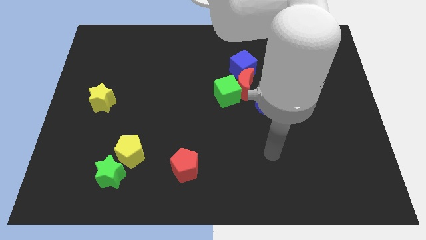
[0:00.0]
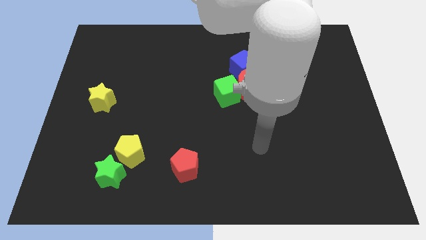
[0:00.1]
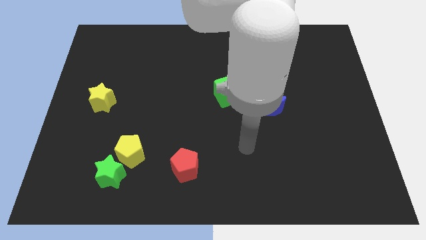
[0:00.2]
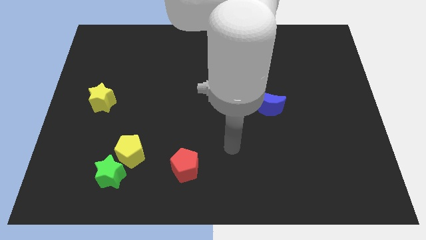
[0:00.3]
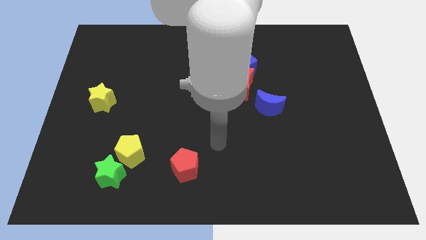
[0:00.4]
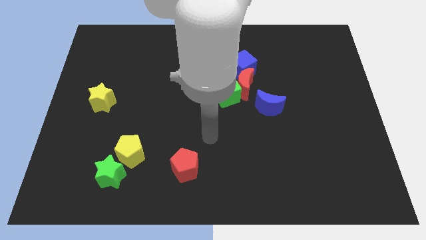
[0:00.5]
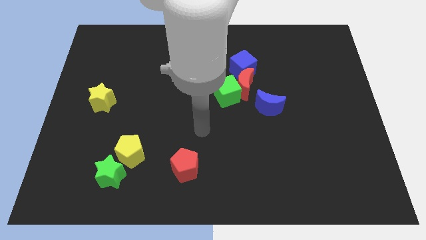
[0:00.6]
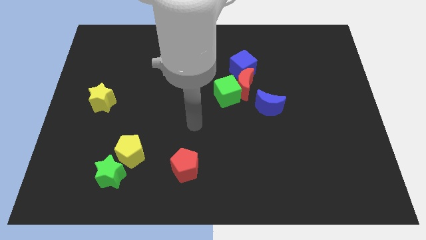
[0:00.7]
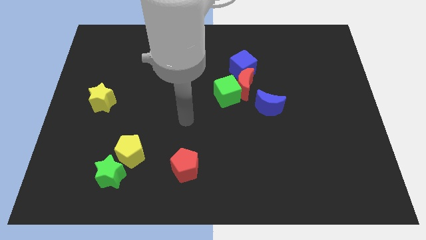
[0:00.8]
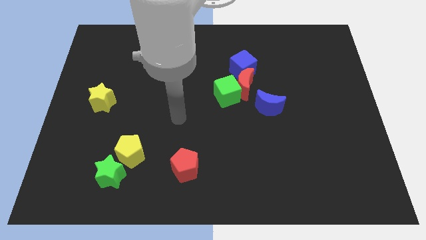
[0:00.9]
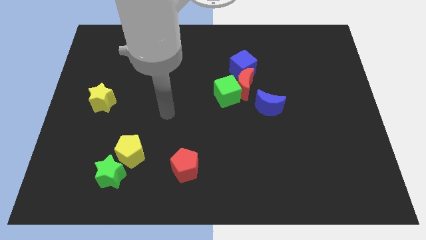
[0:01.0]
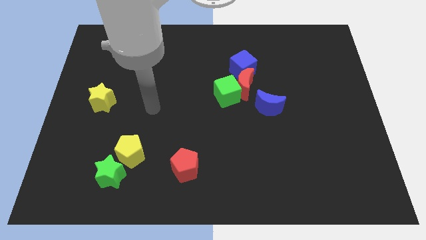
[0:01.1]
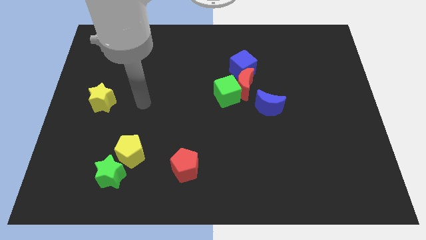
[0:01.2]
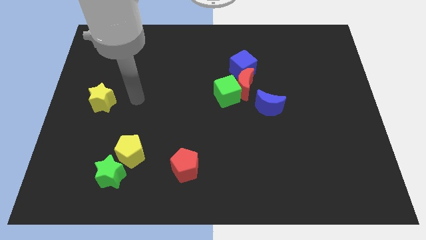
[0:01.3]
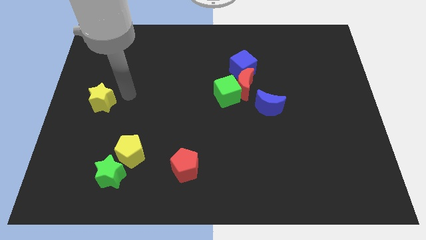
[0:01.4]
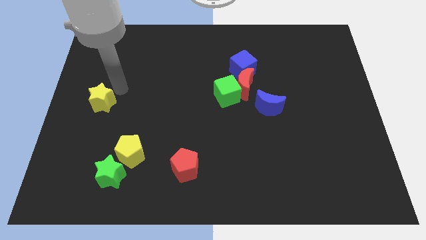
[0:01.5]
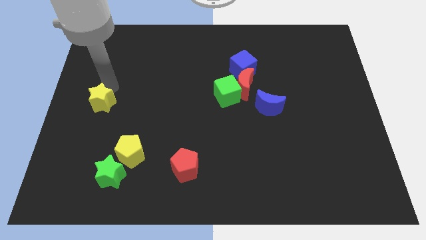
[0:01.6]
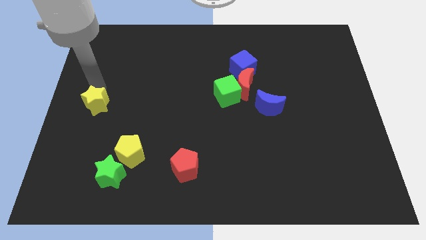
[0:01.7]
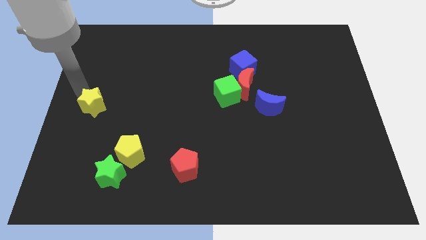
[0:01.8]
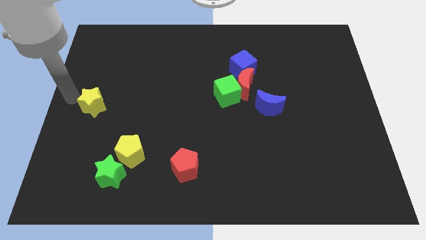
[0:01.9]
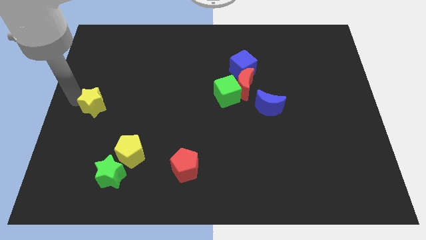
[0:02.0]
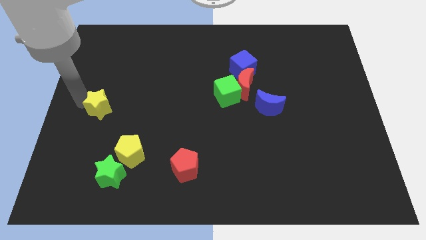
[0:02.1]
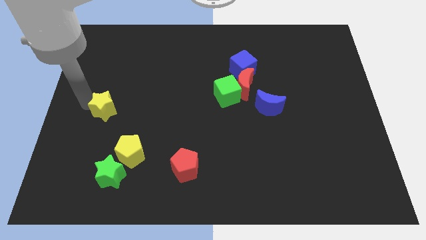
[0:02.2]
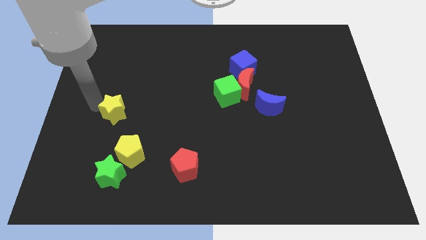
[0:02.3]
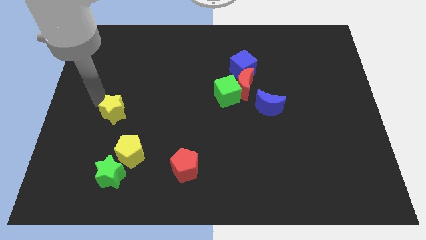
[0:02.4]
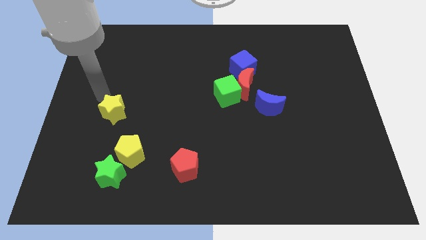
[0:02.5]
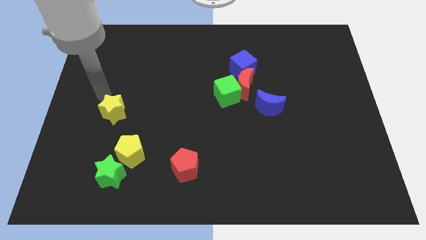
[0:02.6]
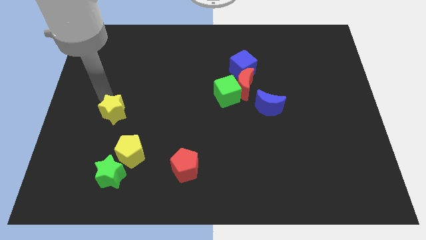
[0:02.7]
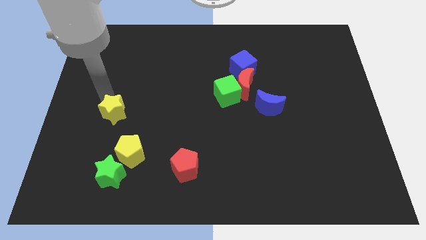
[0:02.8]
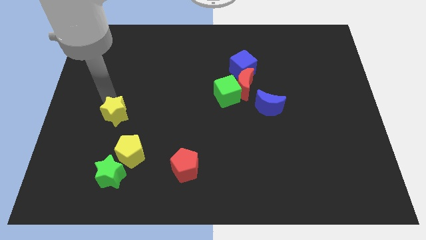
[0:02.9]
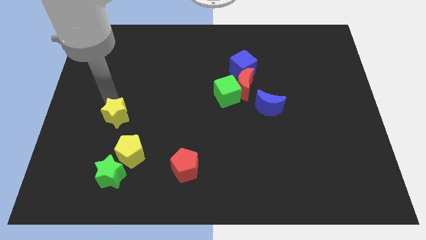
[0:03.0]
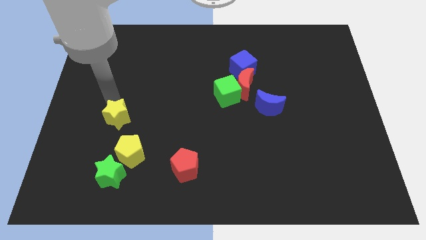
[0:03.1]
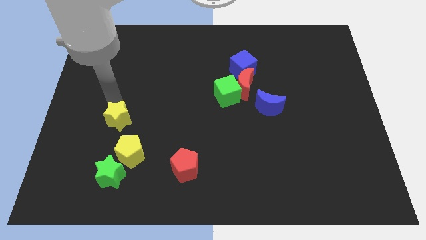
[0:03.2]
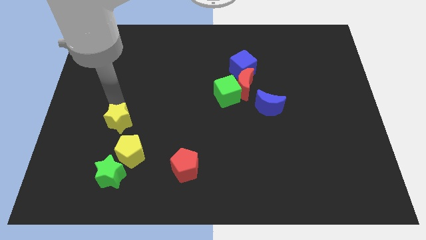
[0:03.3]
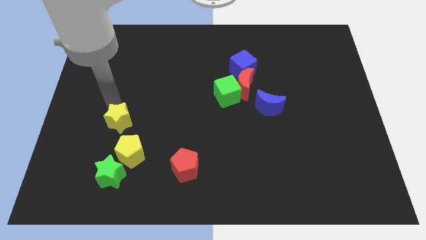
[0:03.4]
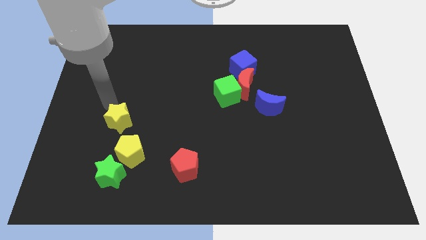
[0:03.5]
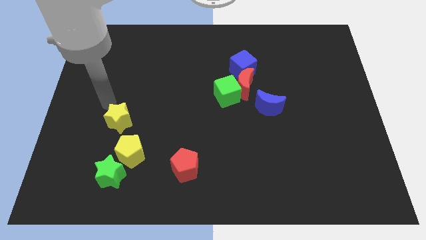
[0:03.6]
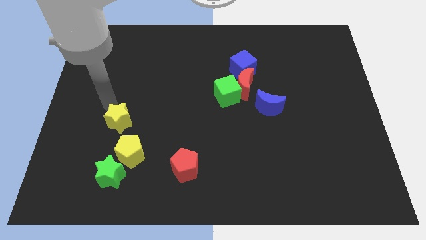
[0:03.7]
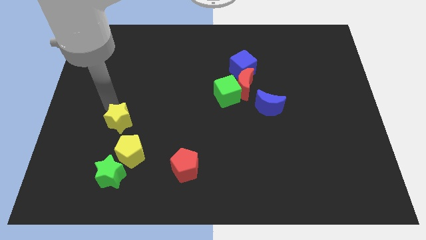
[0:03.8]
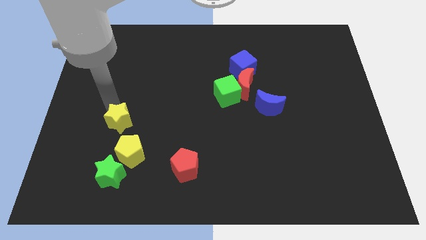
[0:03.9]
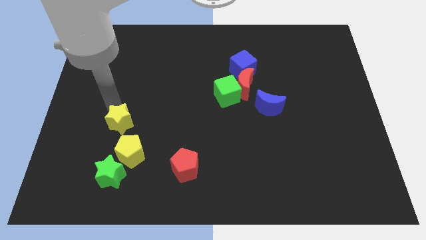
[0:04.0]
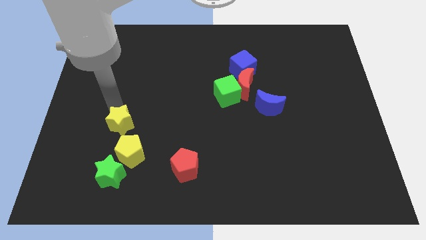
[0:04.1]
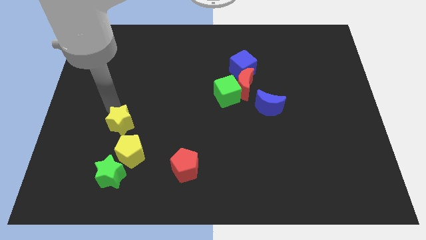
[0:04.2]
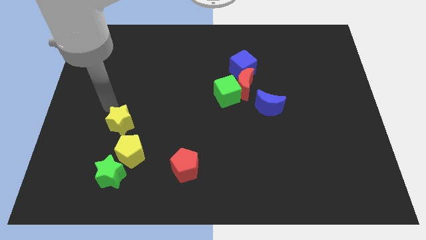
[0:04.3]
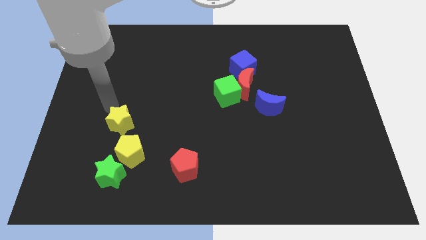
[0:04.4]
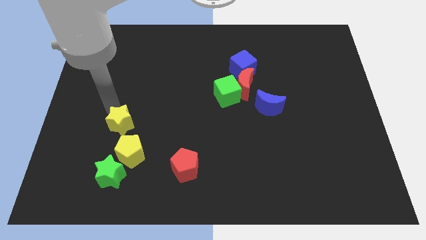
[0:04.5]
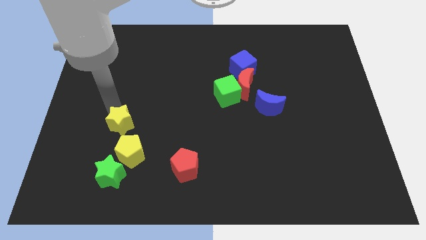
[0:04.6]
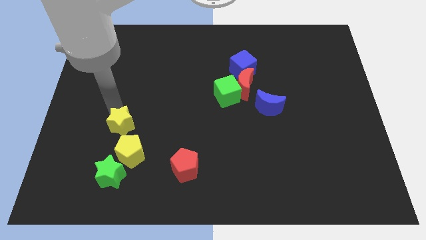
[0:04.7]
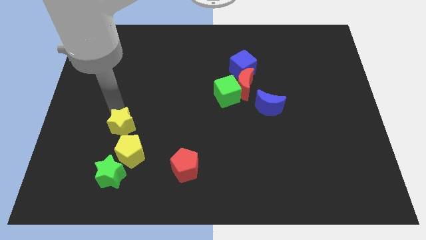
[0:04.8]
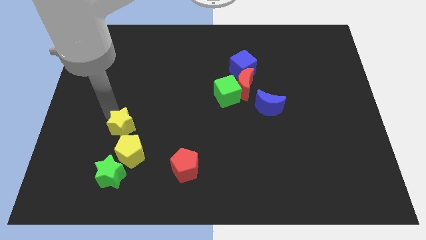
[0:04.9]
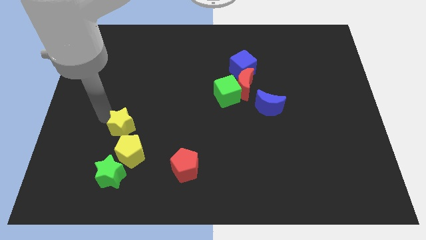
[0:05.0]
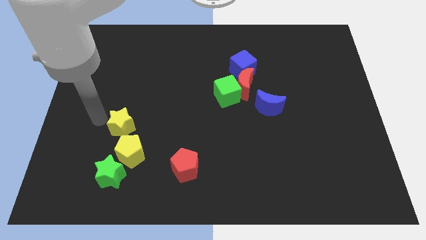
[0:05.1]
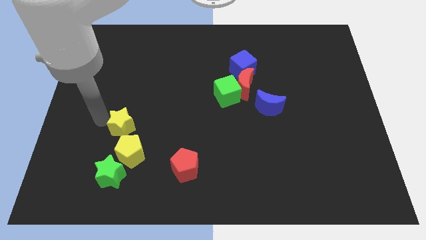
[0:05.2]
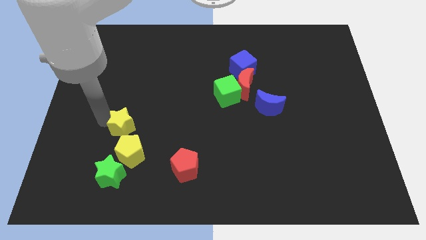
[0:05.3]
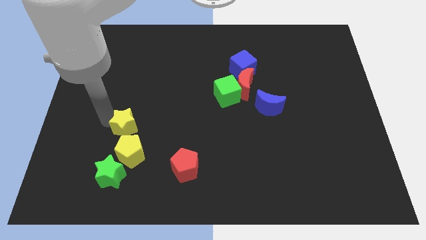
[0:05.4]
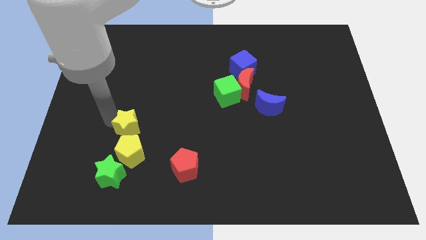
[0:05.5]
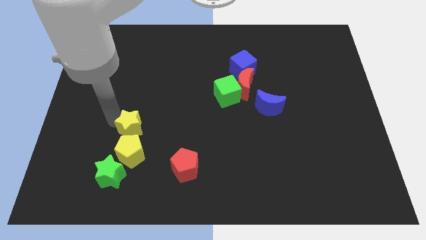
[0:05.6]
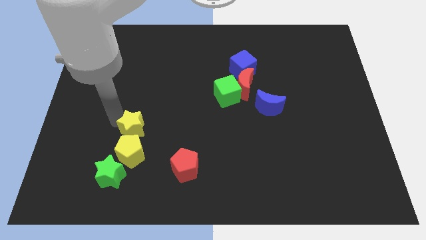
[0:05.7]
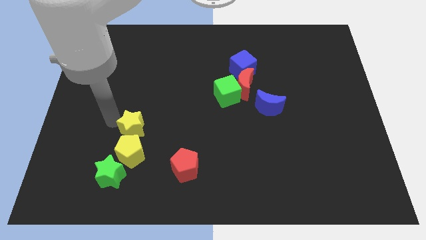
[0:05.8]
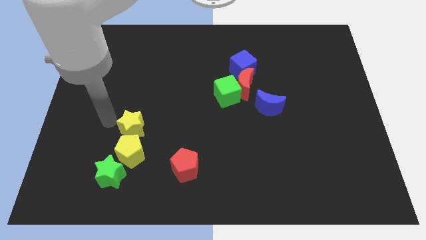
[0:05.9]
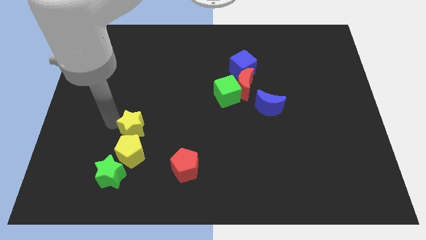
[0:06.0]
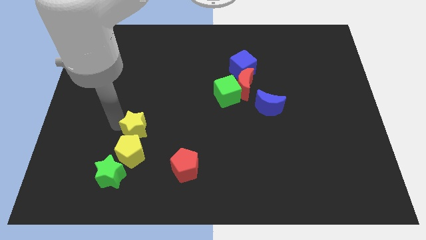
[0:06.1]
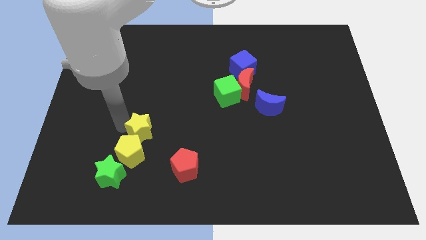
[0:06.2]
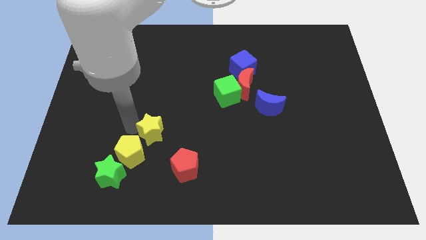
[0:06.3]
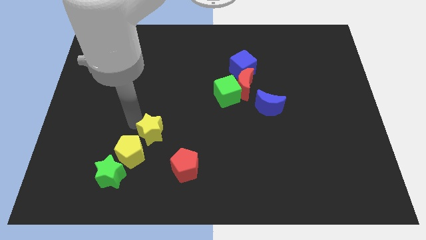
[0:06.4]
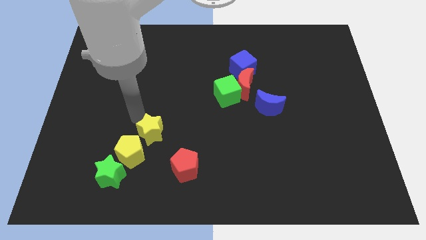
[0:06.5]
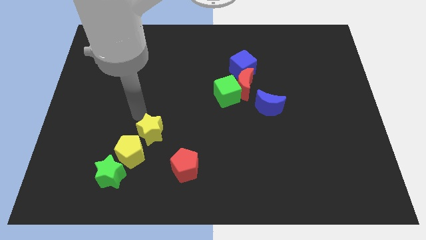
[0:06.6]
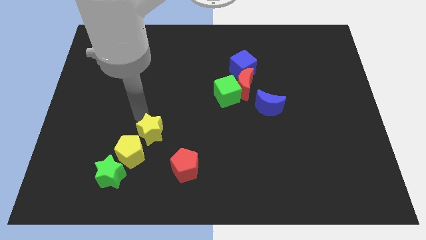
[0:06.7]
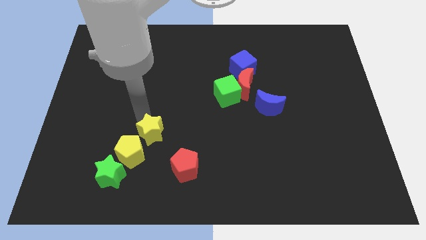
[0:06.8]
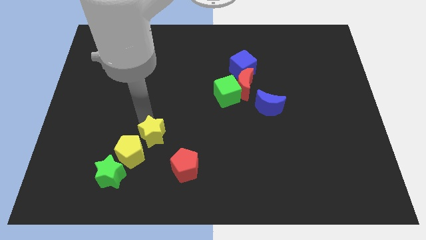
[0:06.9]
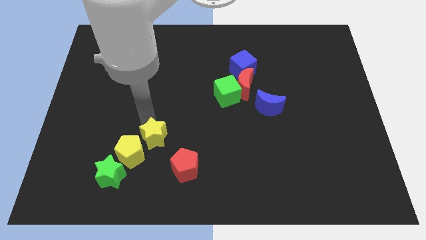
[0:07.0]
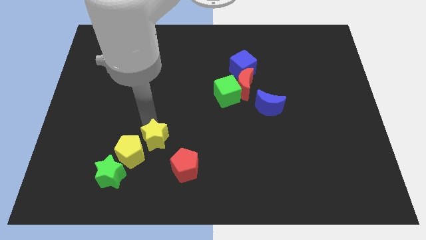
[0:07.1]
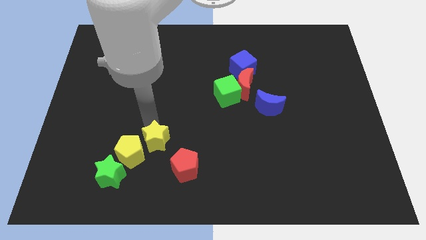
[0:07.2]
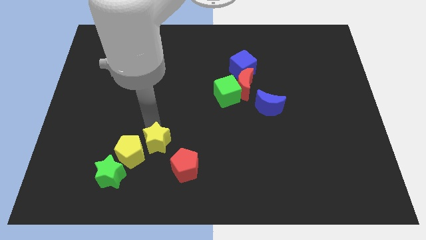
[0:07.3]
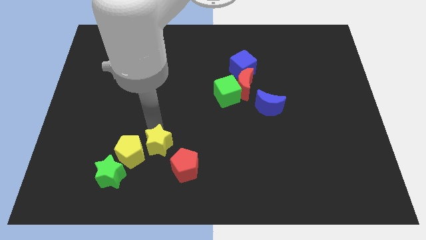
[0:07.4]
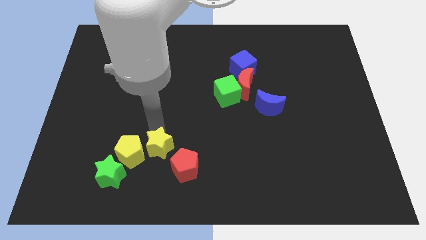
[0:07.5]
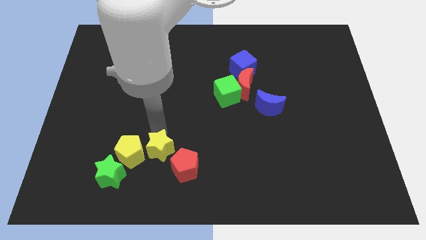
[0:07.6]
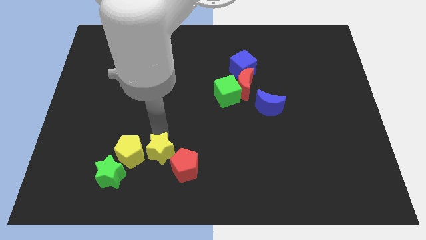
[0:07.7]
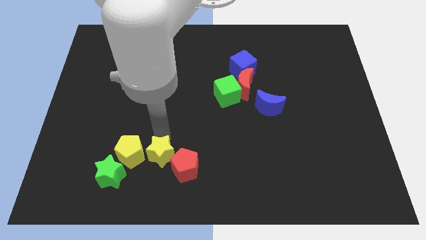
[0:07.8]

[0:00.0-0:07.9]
push the yellow star to the right of the green star
